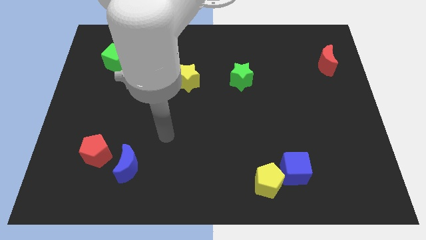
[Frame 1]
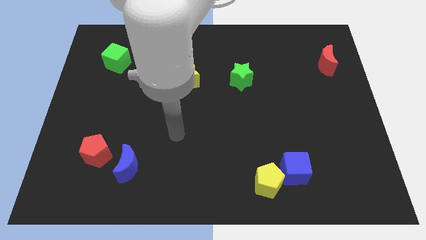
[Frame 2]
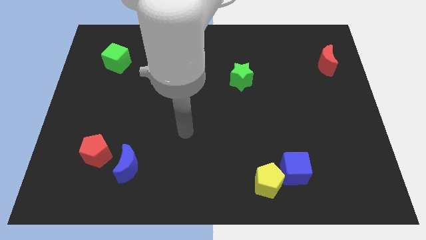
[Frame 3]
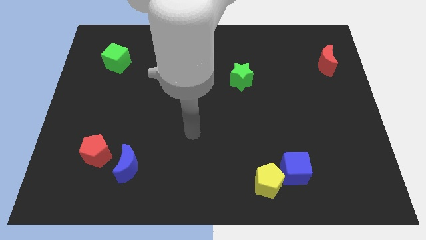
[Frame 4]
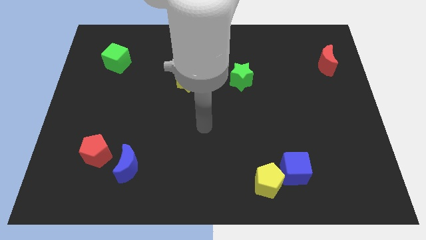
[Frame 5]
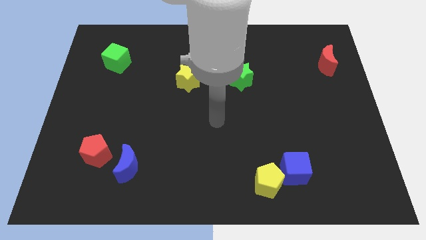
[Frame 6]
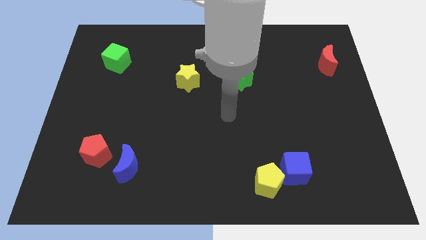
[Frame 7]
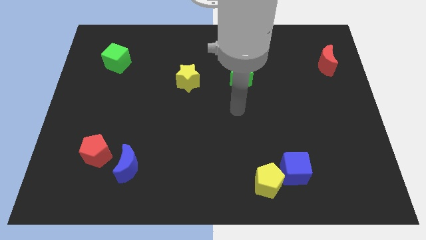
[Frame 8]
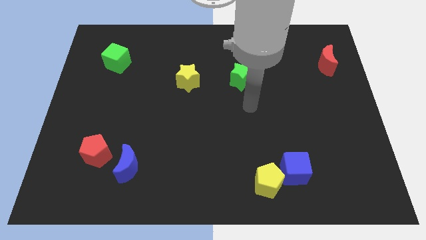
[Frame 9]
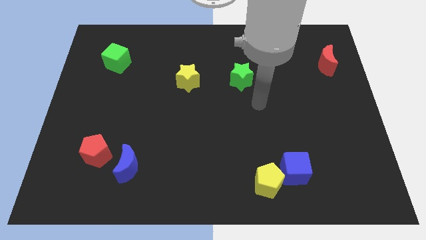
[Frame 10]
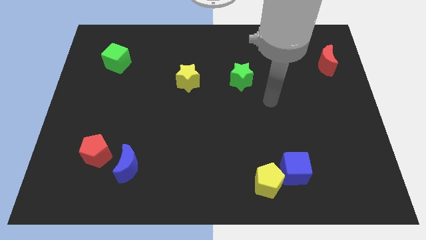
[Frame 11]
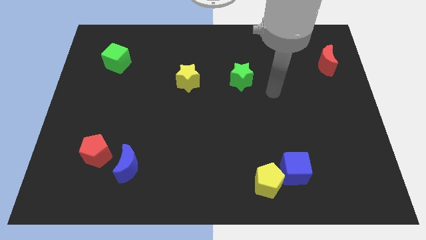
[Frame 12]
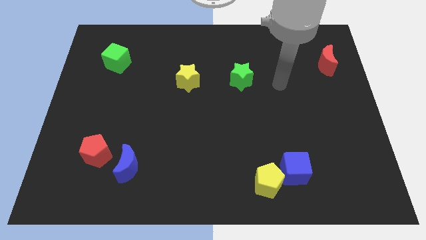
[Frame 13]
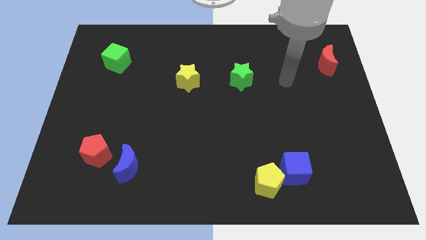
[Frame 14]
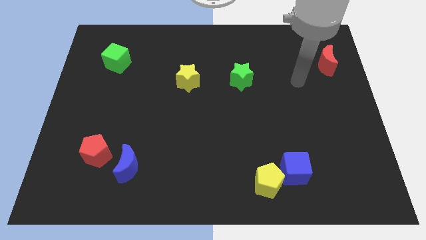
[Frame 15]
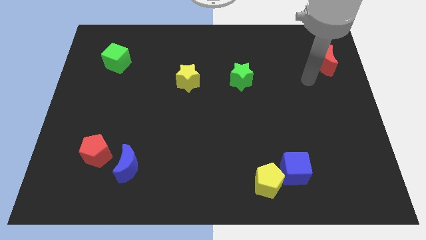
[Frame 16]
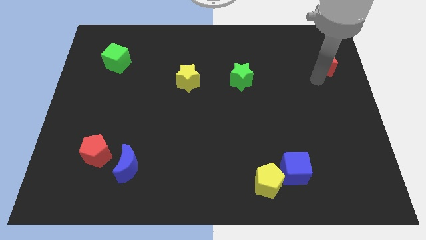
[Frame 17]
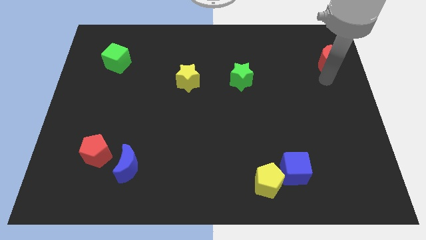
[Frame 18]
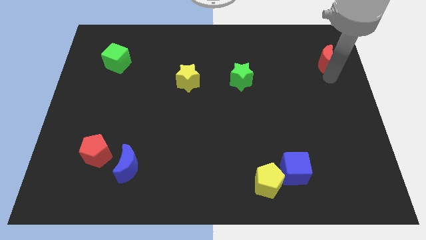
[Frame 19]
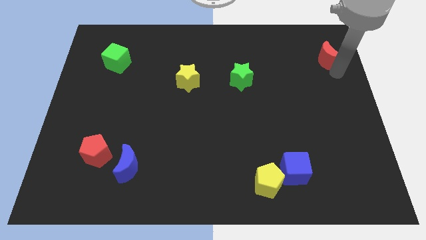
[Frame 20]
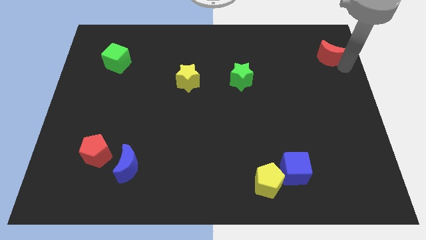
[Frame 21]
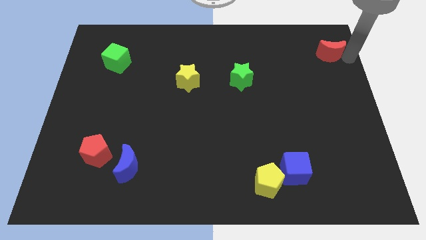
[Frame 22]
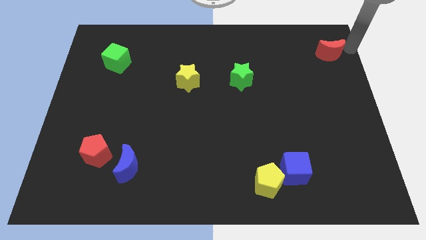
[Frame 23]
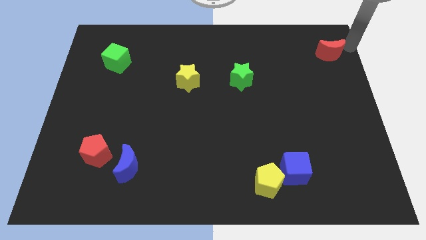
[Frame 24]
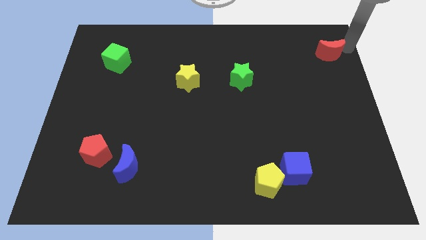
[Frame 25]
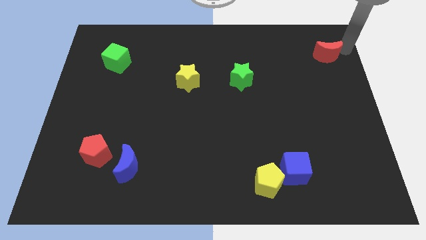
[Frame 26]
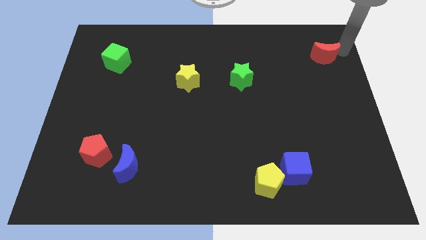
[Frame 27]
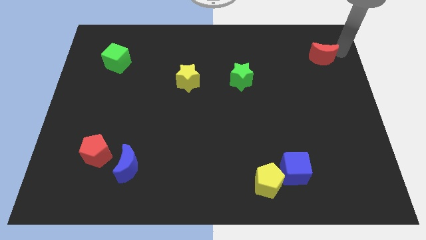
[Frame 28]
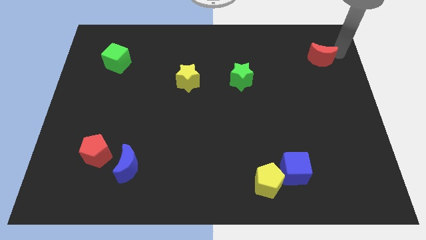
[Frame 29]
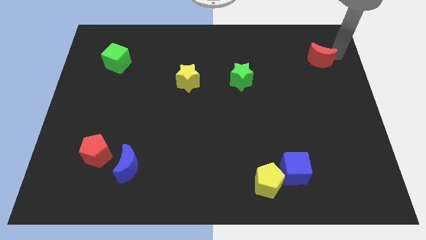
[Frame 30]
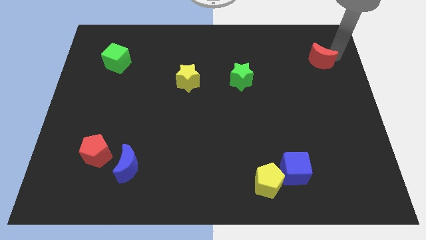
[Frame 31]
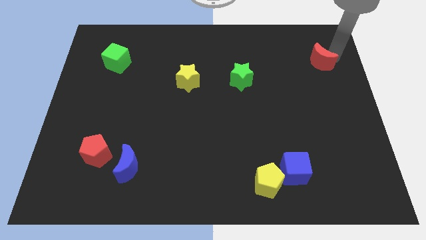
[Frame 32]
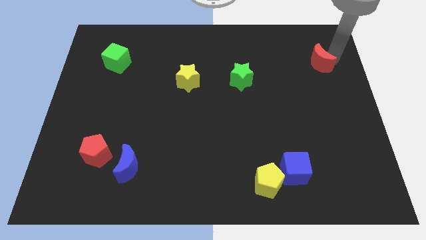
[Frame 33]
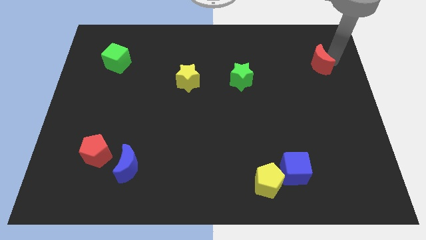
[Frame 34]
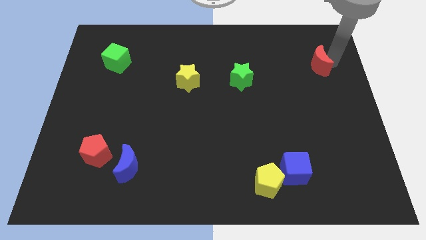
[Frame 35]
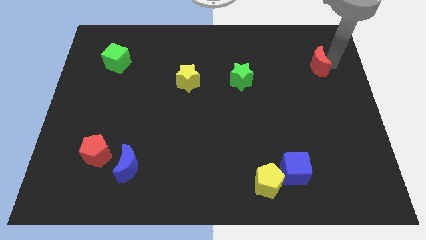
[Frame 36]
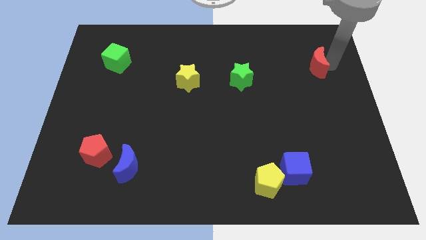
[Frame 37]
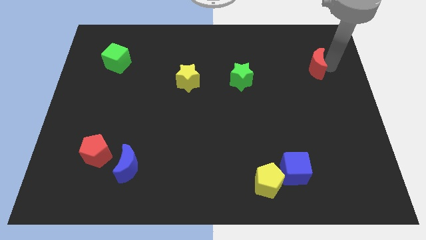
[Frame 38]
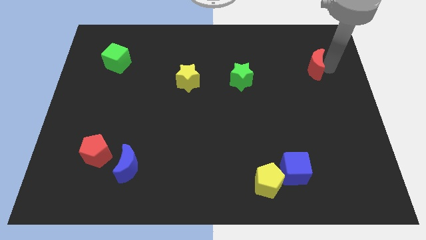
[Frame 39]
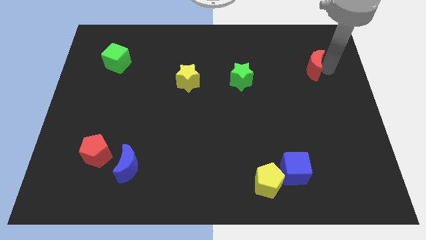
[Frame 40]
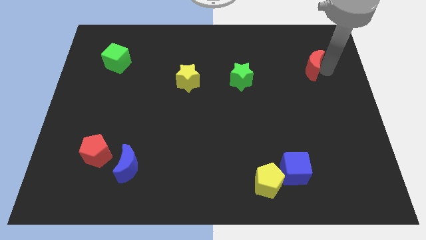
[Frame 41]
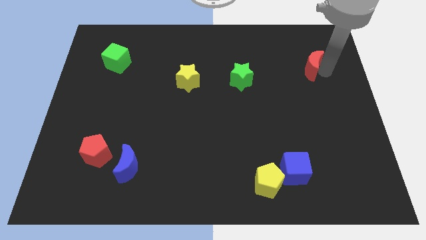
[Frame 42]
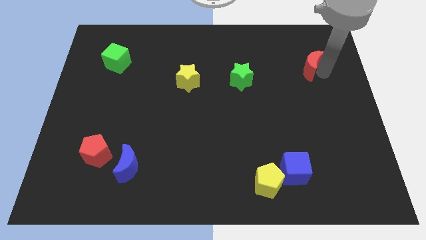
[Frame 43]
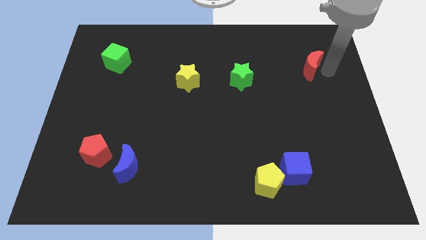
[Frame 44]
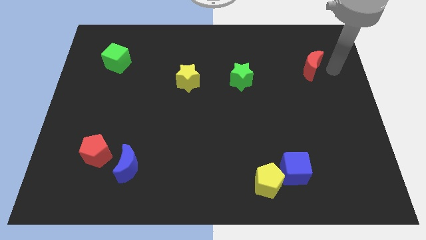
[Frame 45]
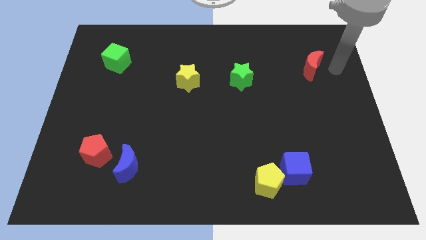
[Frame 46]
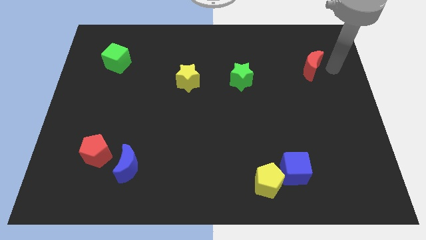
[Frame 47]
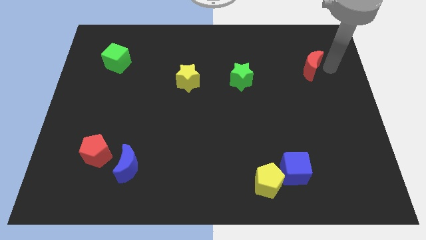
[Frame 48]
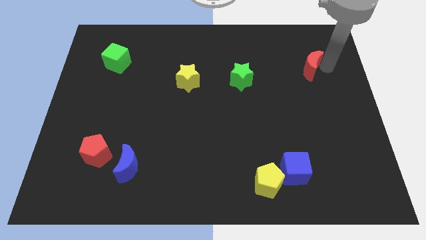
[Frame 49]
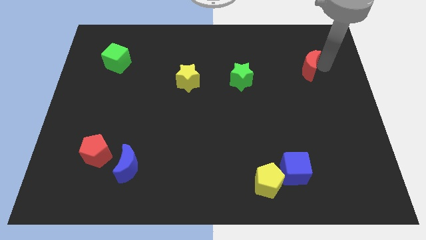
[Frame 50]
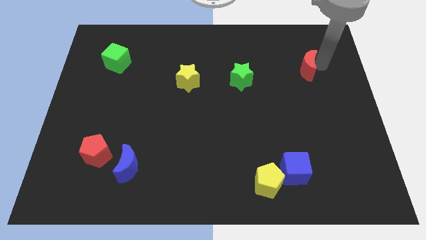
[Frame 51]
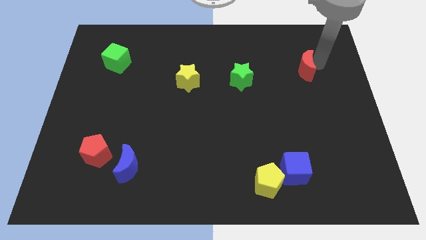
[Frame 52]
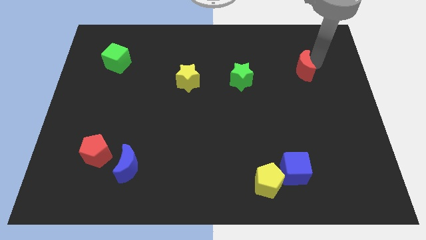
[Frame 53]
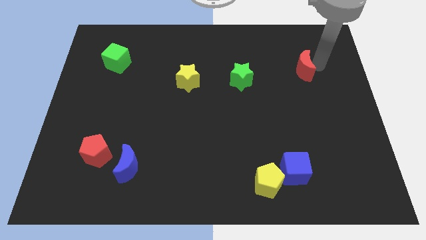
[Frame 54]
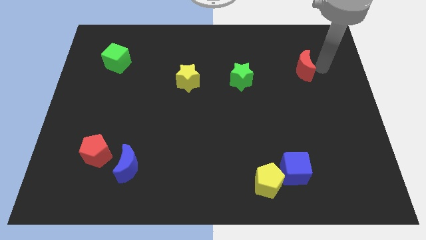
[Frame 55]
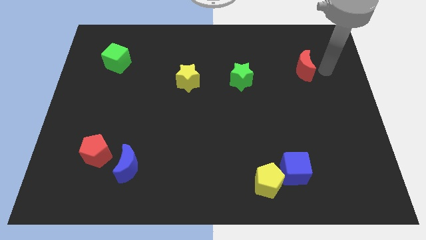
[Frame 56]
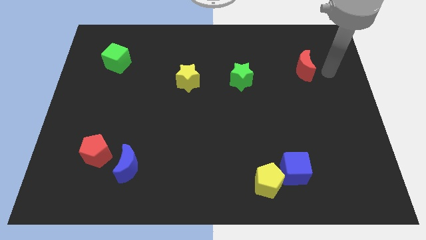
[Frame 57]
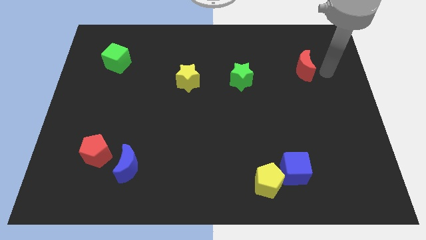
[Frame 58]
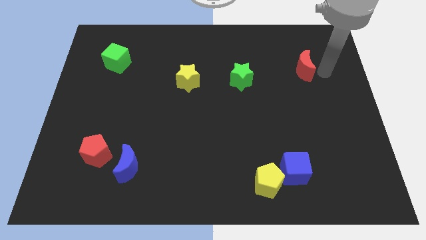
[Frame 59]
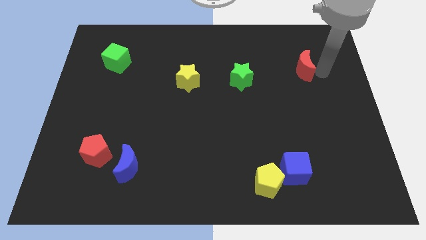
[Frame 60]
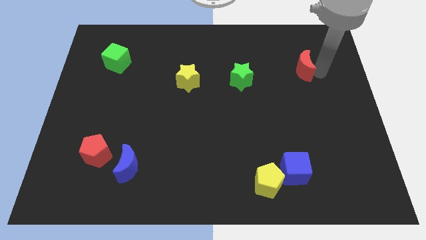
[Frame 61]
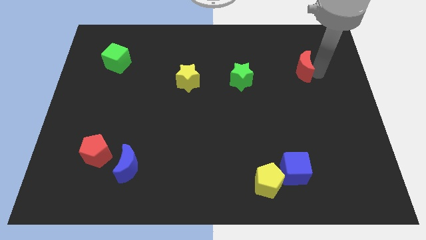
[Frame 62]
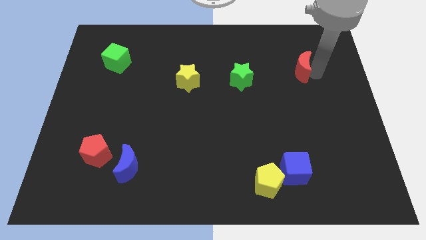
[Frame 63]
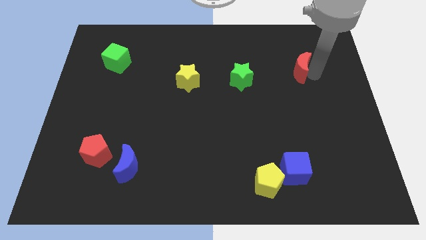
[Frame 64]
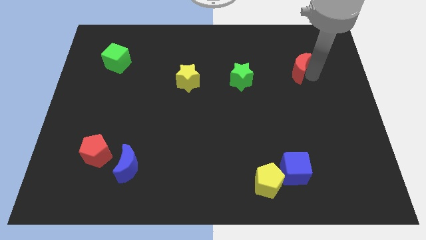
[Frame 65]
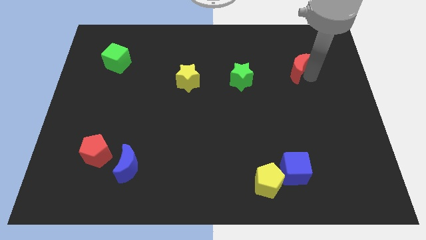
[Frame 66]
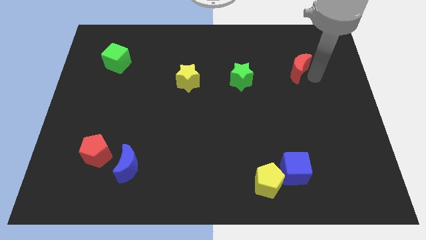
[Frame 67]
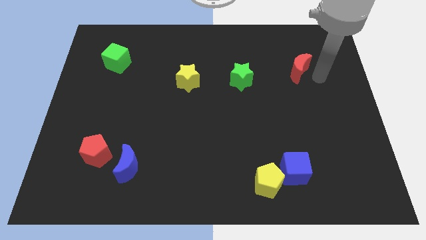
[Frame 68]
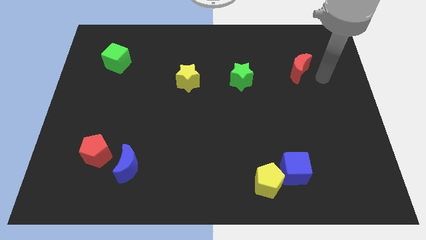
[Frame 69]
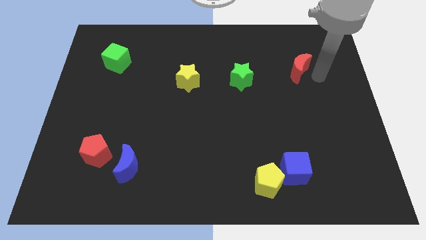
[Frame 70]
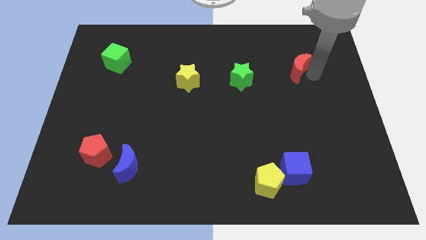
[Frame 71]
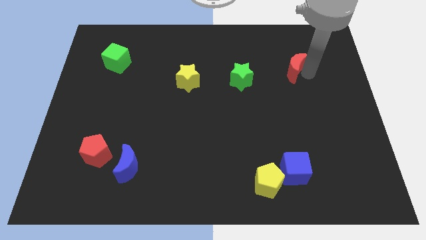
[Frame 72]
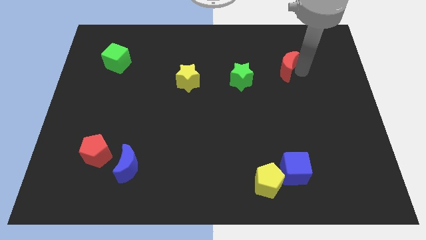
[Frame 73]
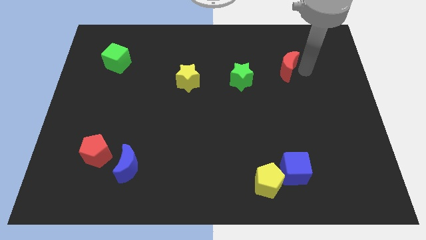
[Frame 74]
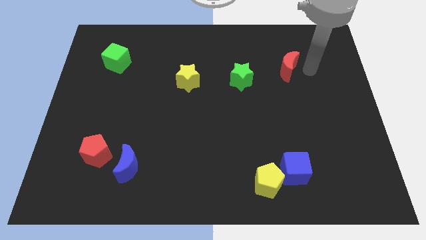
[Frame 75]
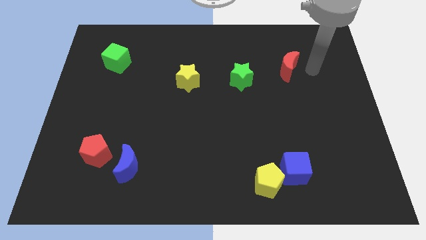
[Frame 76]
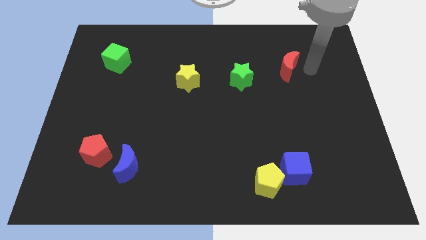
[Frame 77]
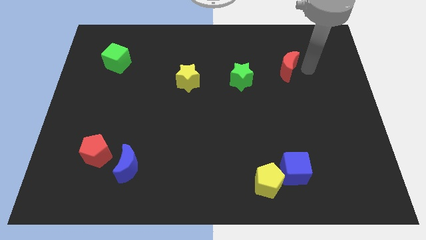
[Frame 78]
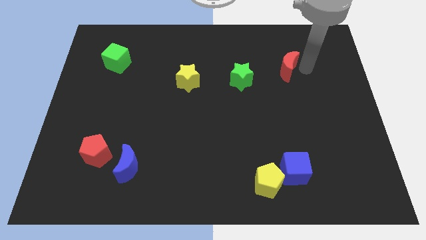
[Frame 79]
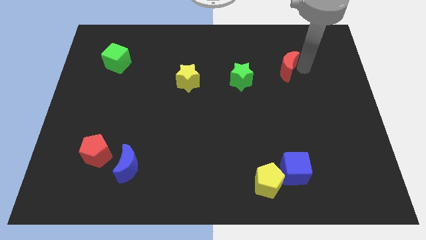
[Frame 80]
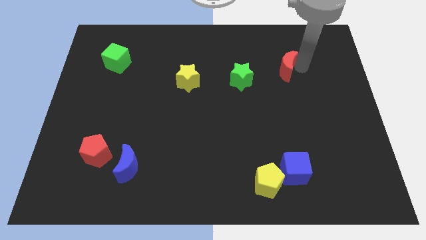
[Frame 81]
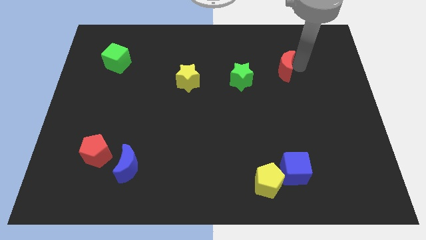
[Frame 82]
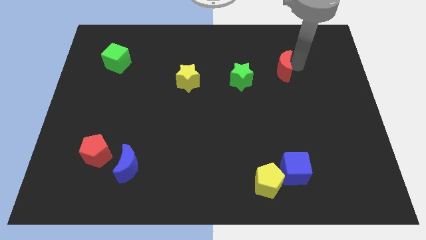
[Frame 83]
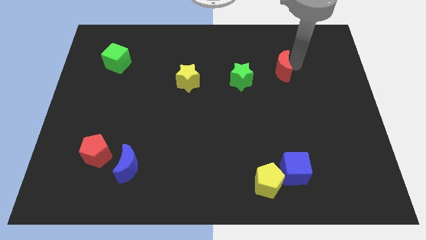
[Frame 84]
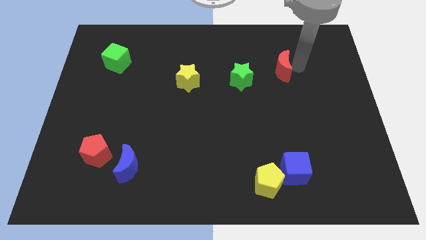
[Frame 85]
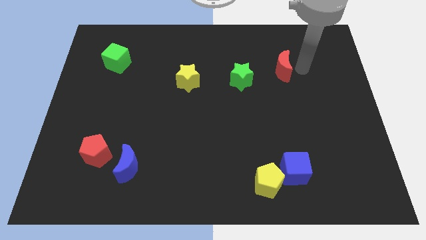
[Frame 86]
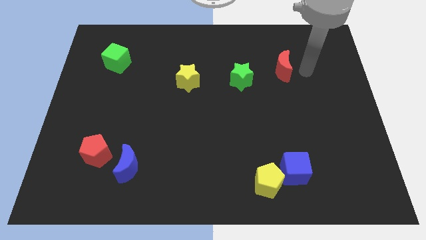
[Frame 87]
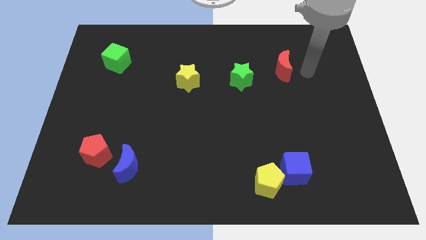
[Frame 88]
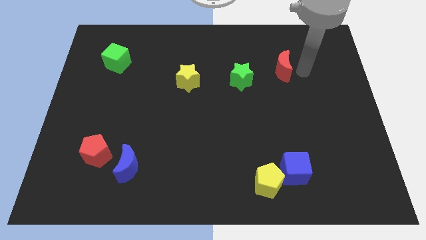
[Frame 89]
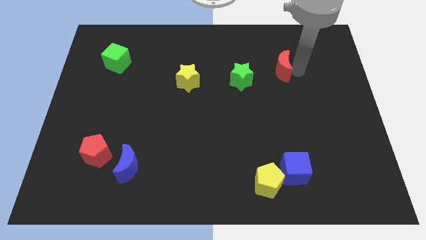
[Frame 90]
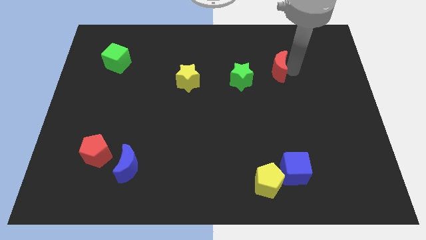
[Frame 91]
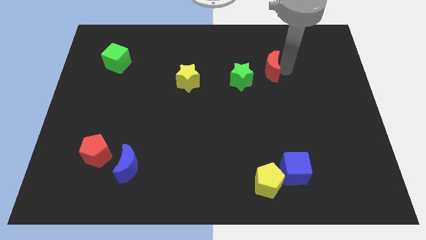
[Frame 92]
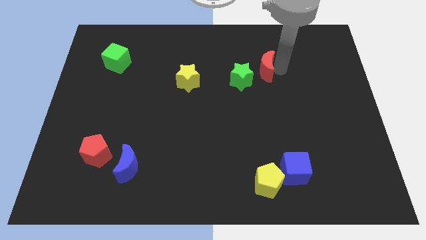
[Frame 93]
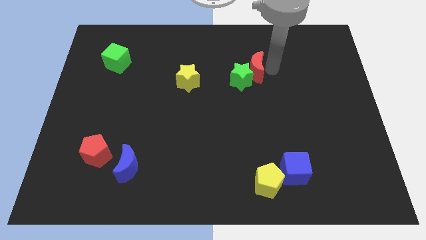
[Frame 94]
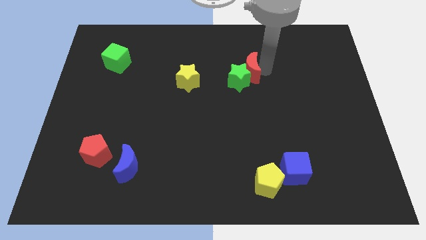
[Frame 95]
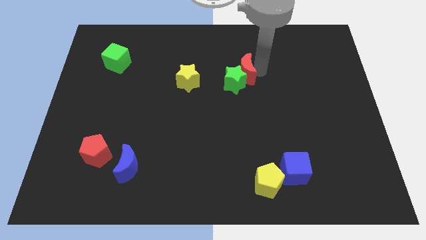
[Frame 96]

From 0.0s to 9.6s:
push the red moon left
